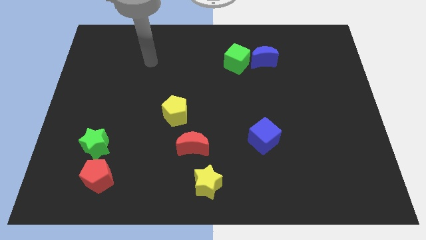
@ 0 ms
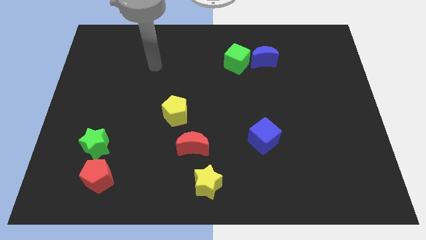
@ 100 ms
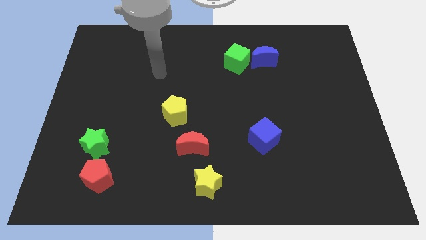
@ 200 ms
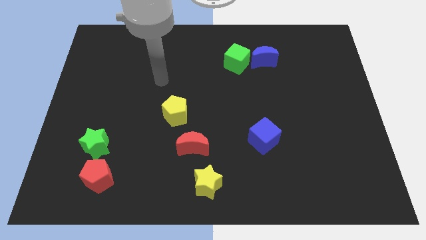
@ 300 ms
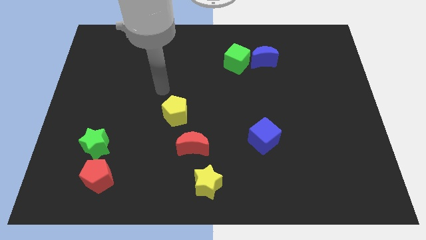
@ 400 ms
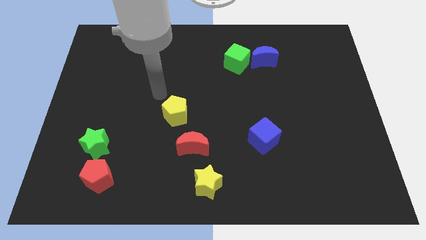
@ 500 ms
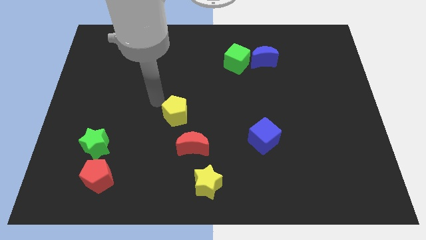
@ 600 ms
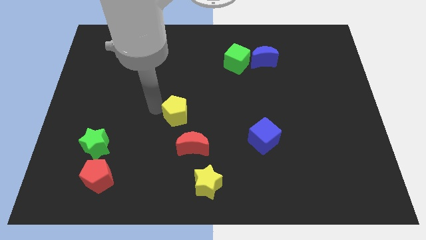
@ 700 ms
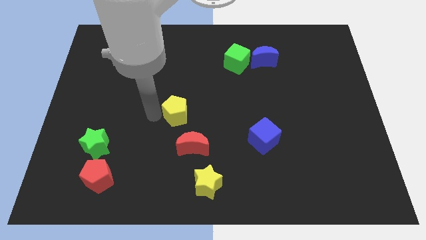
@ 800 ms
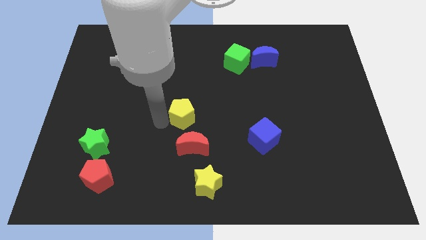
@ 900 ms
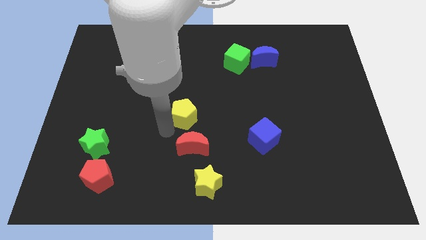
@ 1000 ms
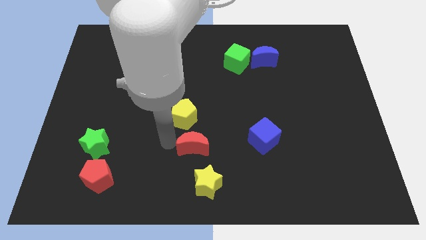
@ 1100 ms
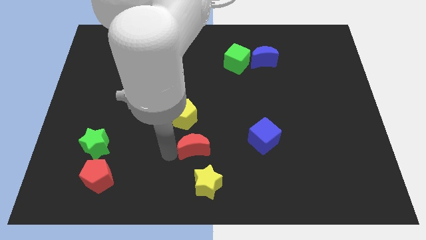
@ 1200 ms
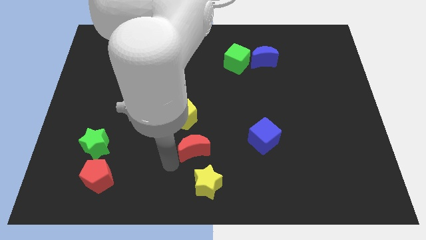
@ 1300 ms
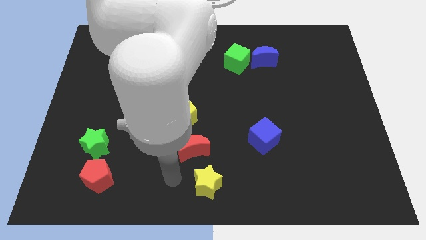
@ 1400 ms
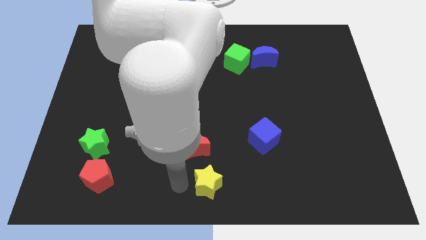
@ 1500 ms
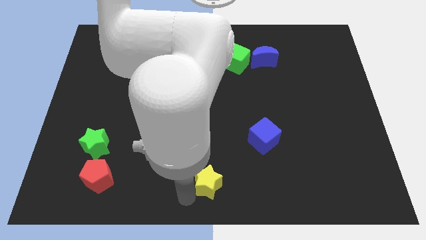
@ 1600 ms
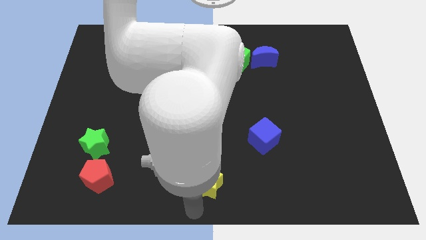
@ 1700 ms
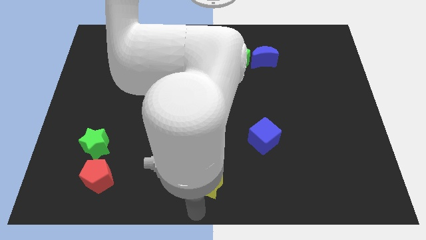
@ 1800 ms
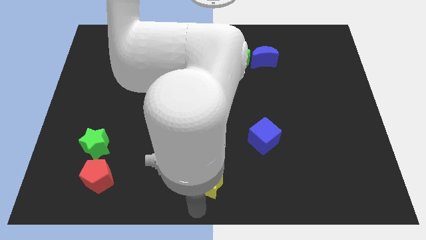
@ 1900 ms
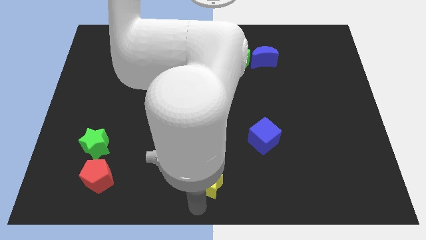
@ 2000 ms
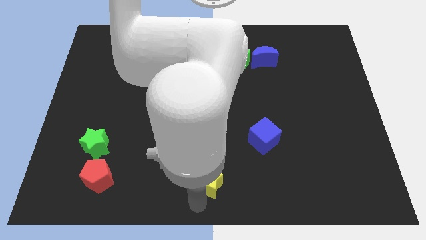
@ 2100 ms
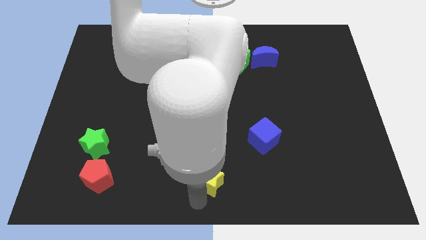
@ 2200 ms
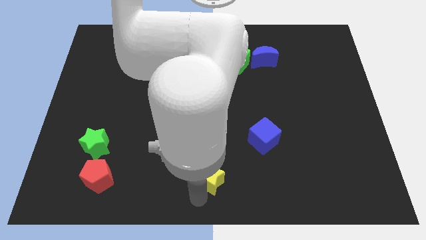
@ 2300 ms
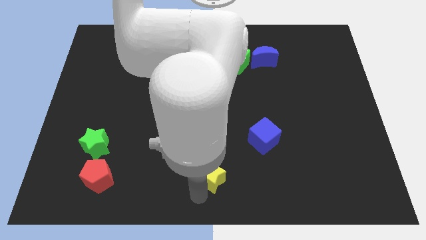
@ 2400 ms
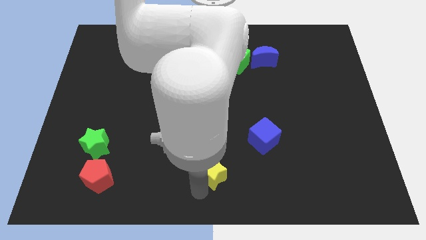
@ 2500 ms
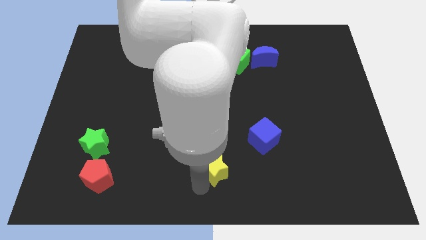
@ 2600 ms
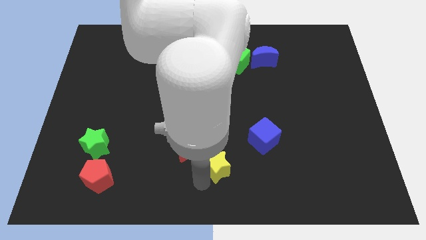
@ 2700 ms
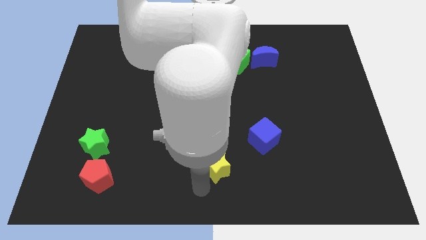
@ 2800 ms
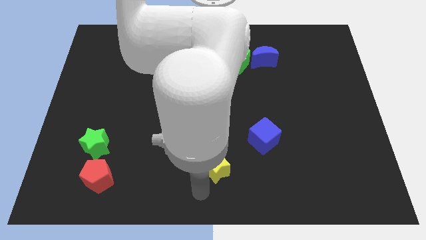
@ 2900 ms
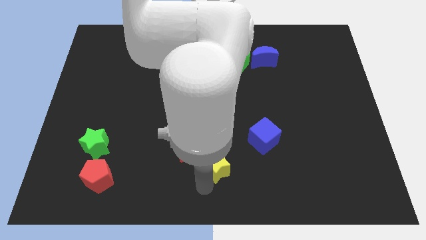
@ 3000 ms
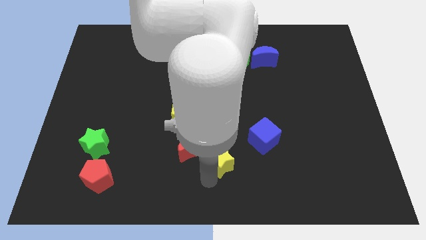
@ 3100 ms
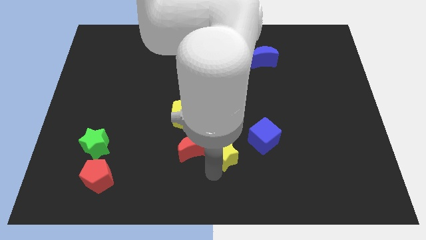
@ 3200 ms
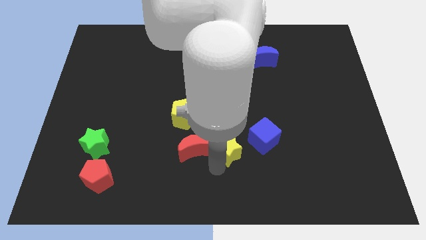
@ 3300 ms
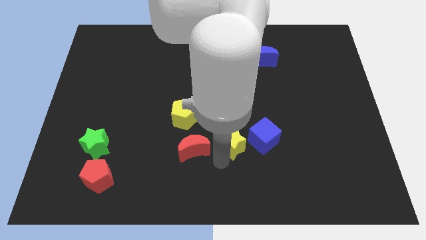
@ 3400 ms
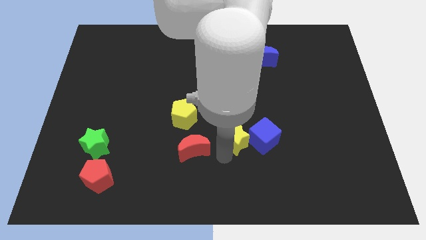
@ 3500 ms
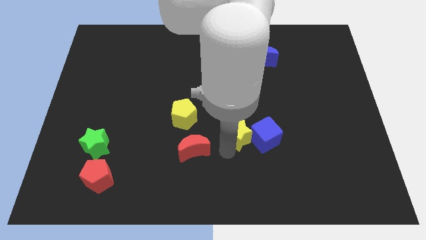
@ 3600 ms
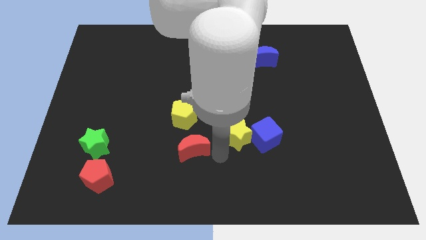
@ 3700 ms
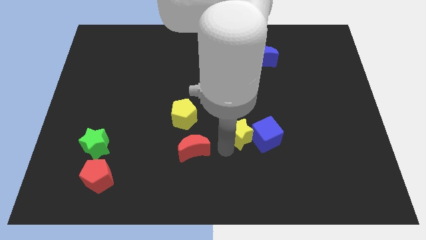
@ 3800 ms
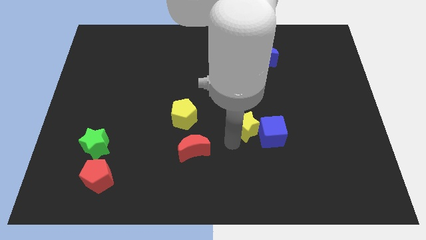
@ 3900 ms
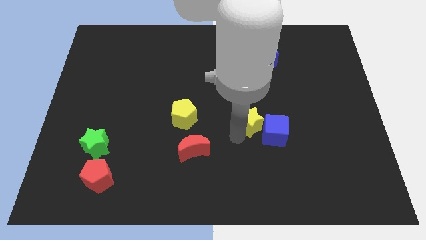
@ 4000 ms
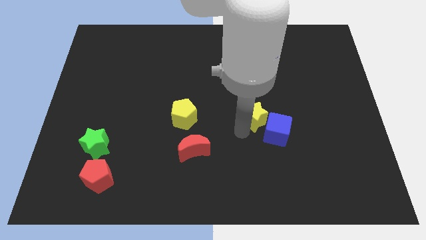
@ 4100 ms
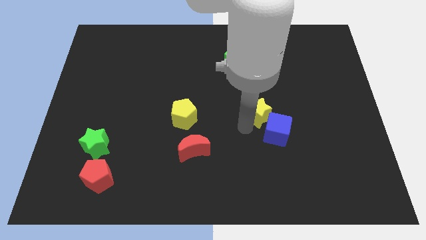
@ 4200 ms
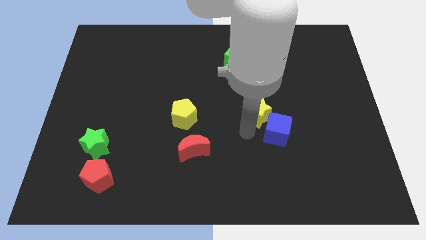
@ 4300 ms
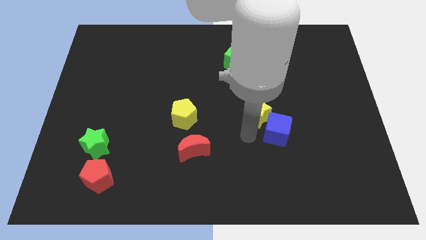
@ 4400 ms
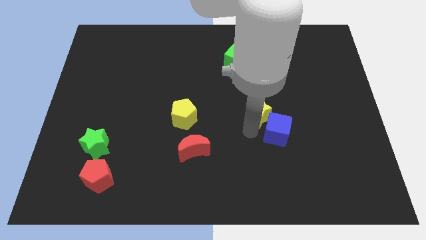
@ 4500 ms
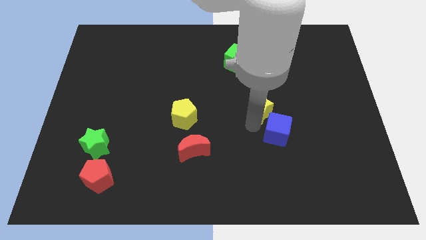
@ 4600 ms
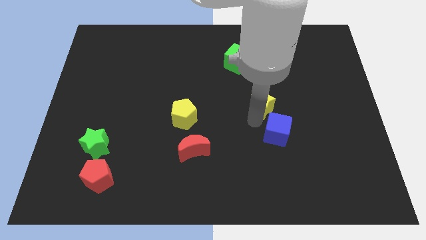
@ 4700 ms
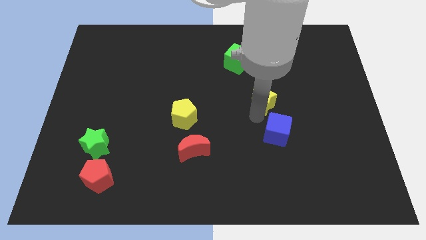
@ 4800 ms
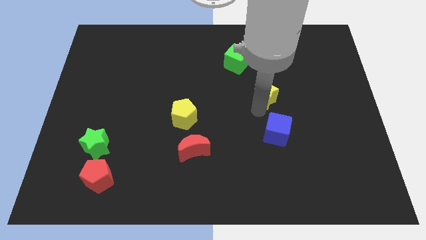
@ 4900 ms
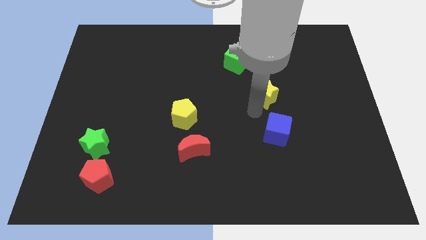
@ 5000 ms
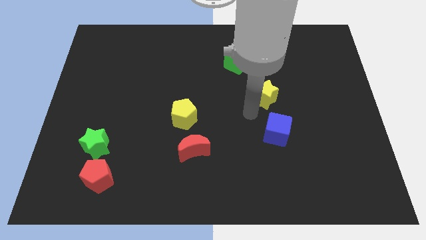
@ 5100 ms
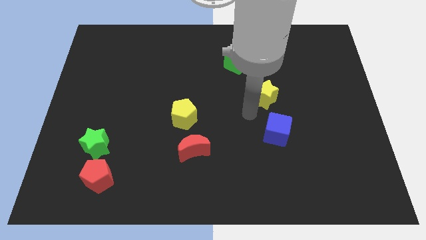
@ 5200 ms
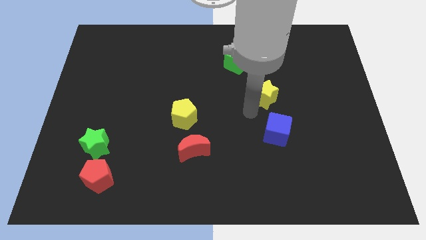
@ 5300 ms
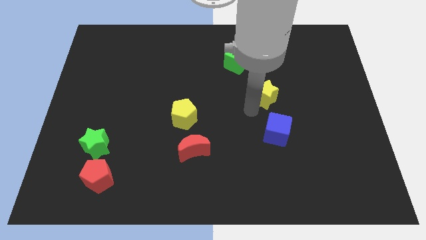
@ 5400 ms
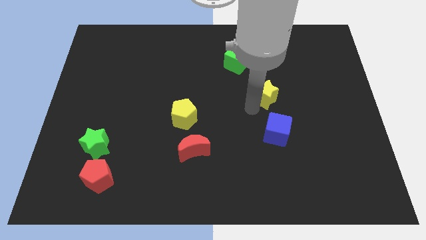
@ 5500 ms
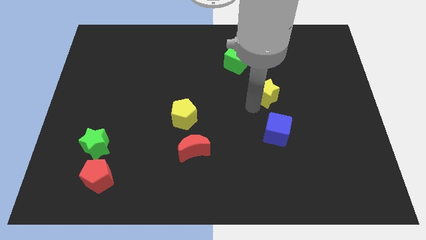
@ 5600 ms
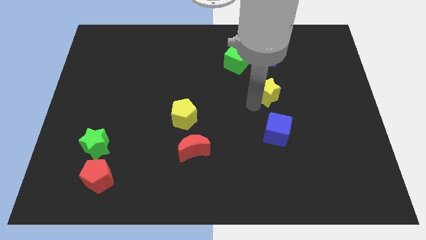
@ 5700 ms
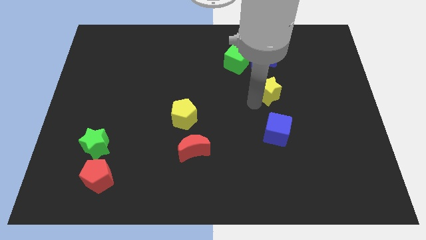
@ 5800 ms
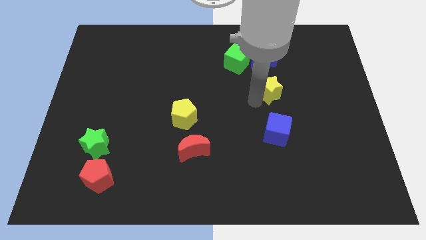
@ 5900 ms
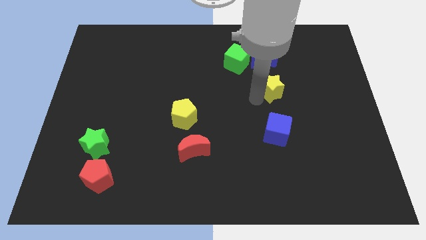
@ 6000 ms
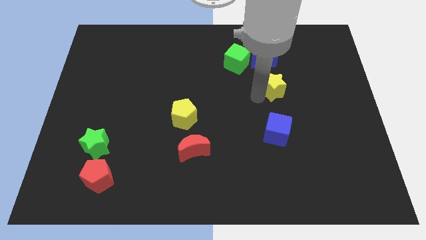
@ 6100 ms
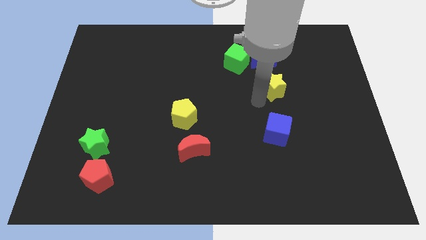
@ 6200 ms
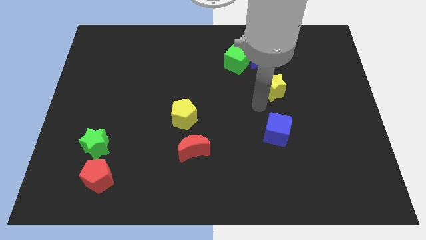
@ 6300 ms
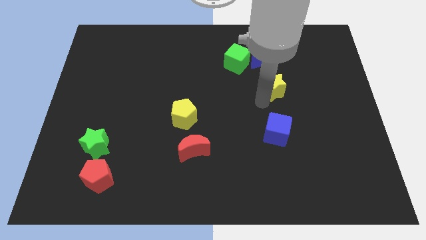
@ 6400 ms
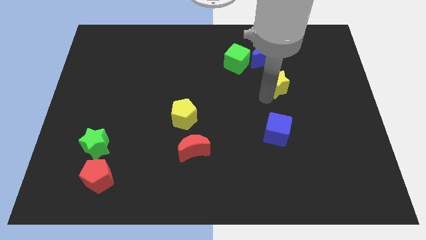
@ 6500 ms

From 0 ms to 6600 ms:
slide the yellow star to the bottom right of the blue moon

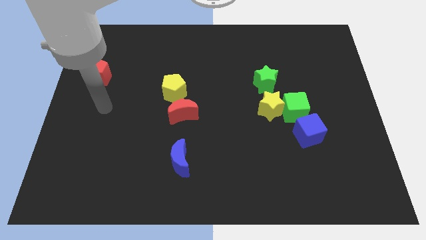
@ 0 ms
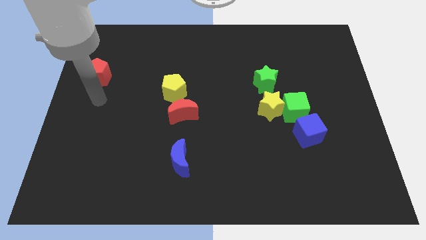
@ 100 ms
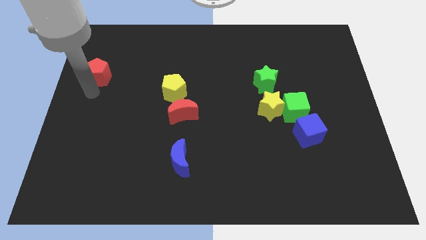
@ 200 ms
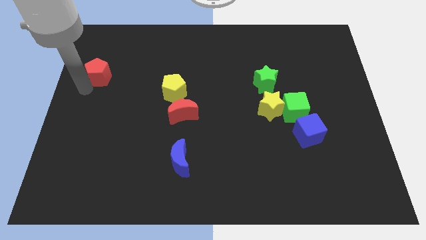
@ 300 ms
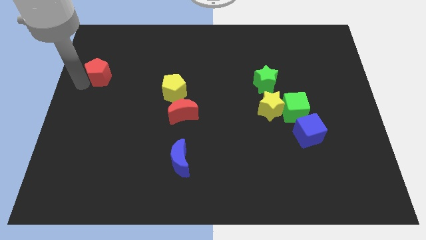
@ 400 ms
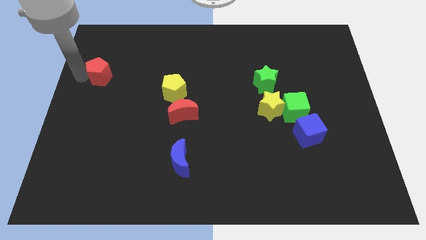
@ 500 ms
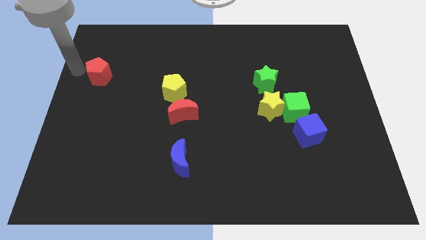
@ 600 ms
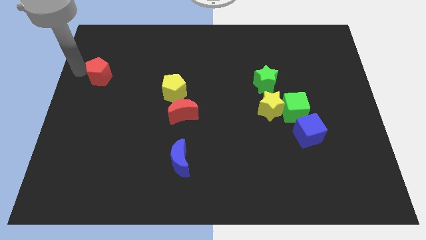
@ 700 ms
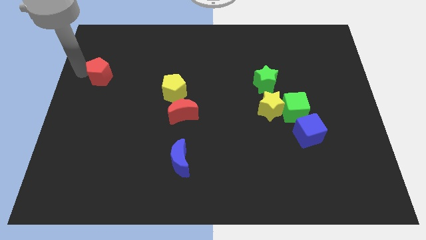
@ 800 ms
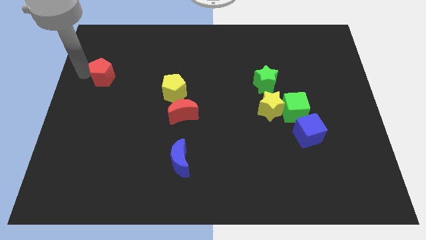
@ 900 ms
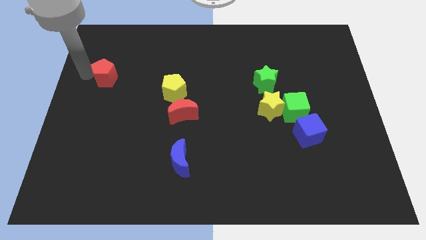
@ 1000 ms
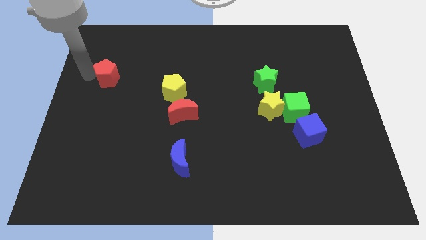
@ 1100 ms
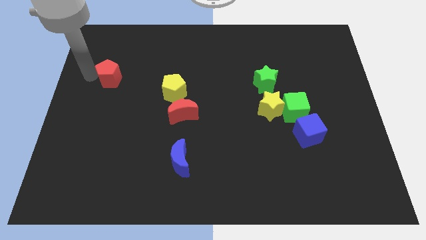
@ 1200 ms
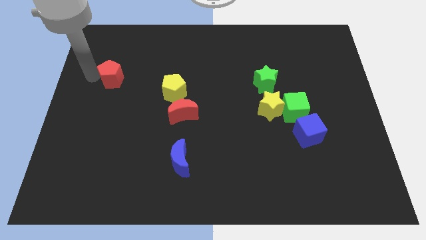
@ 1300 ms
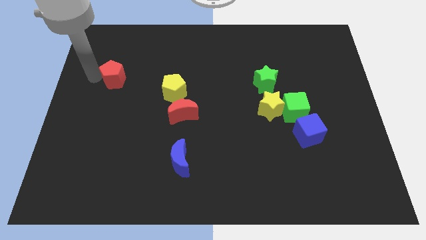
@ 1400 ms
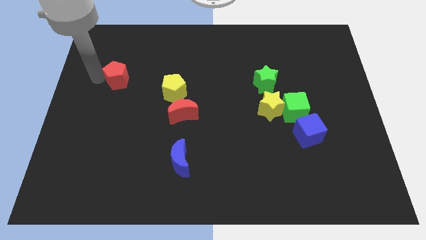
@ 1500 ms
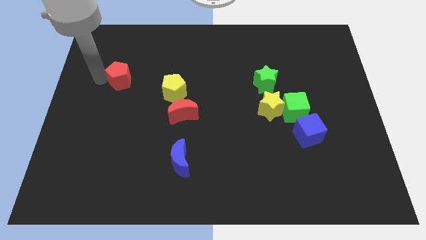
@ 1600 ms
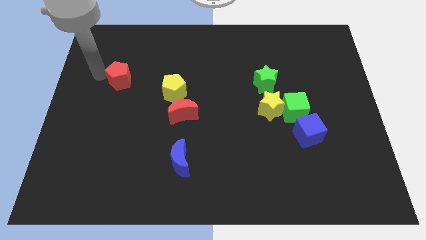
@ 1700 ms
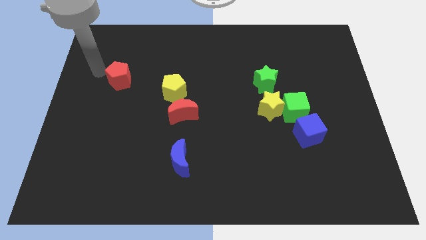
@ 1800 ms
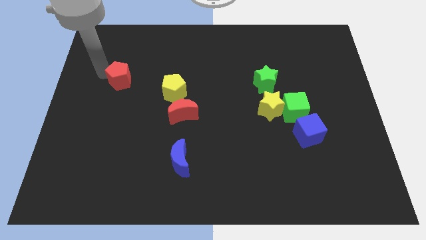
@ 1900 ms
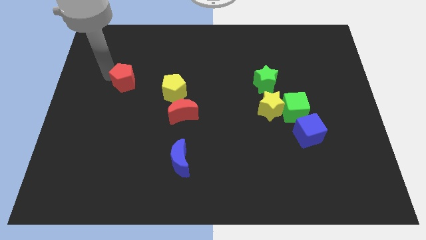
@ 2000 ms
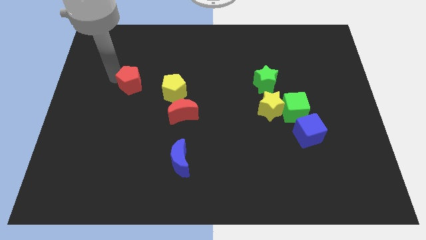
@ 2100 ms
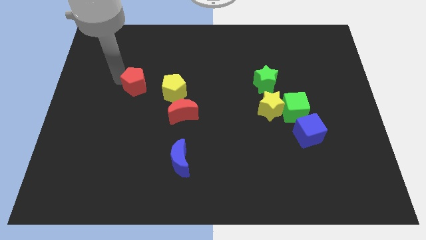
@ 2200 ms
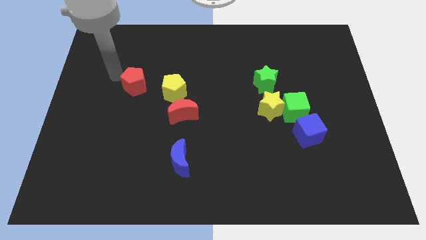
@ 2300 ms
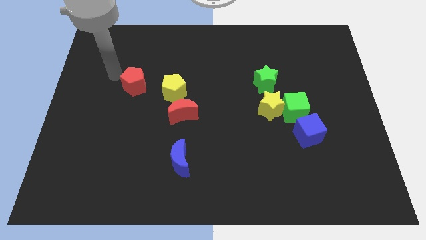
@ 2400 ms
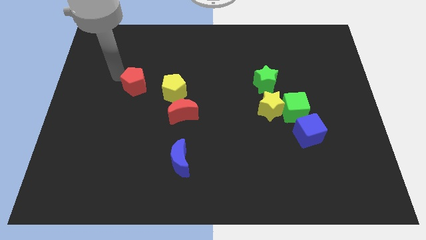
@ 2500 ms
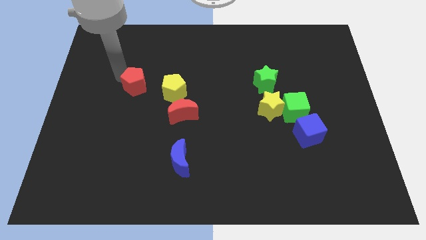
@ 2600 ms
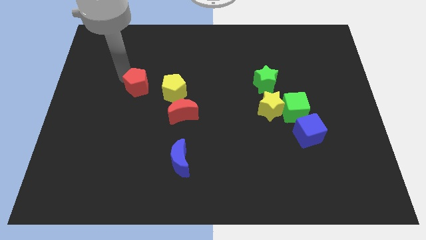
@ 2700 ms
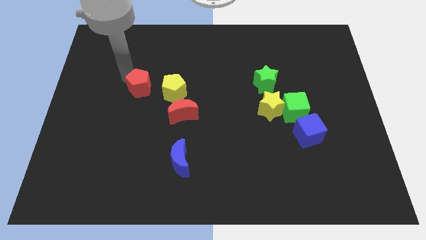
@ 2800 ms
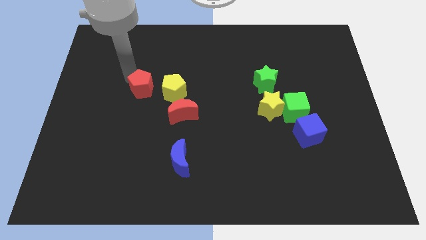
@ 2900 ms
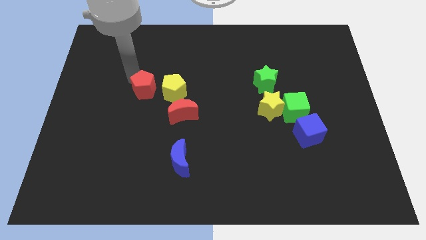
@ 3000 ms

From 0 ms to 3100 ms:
put the red pentagon to the top left side of the red moon
